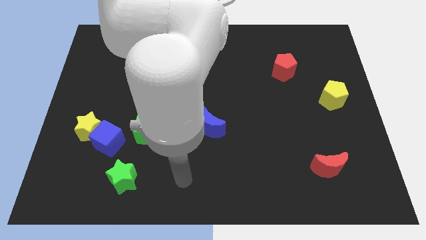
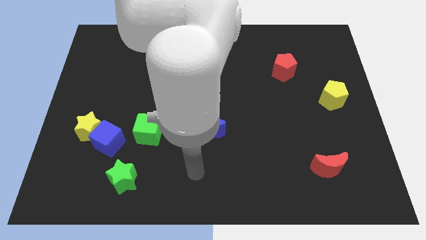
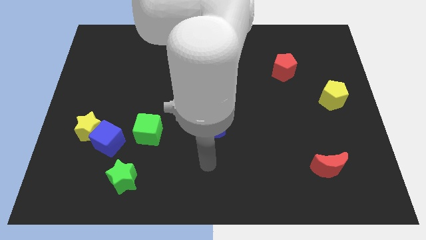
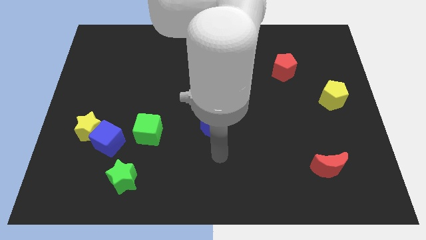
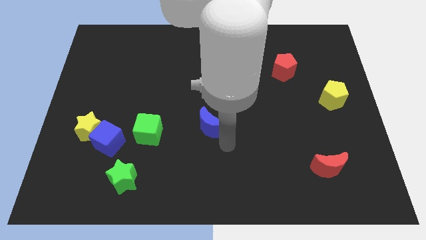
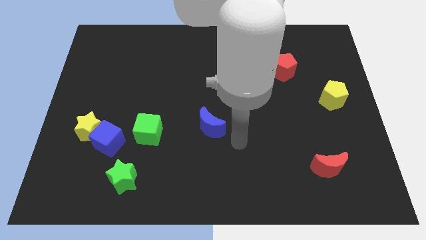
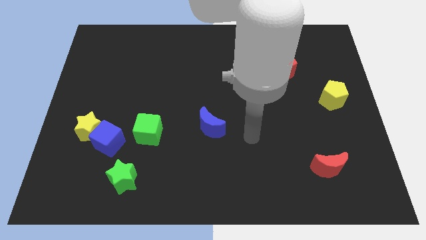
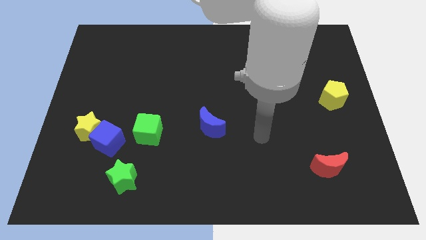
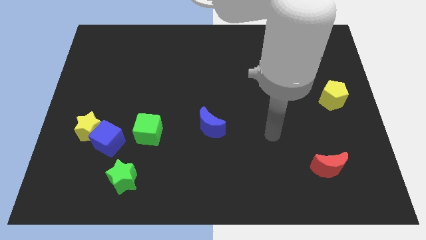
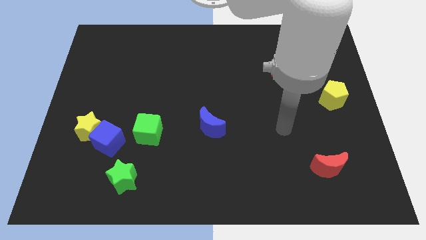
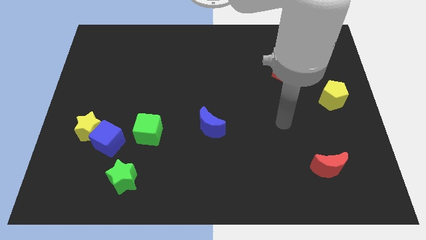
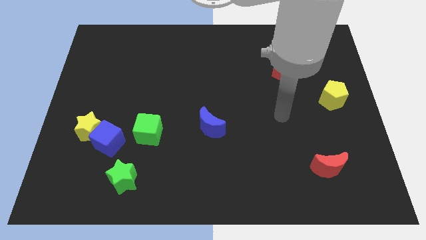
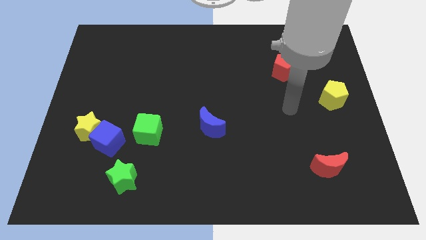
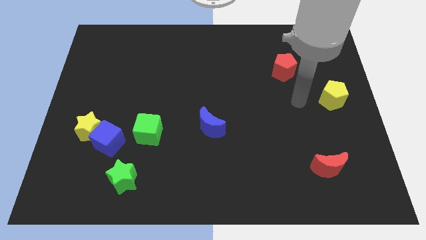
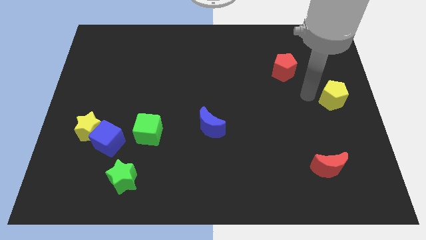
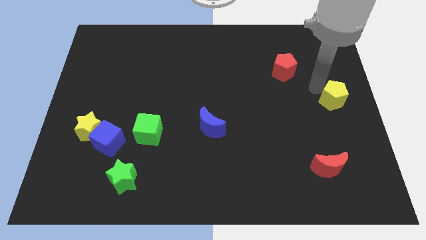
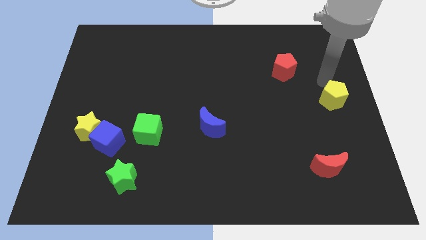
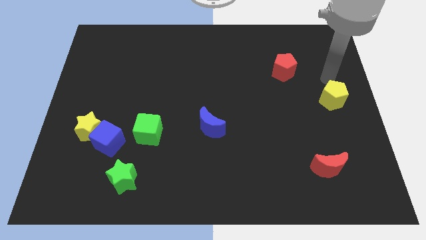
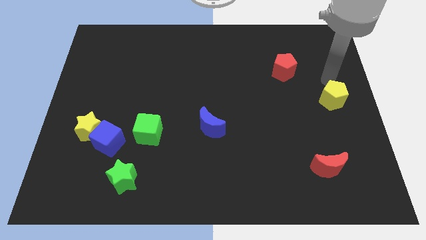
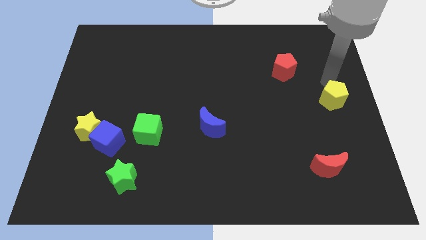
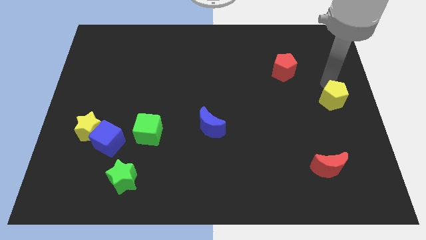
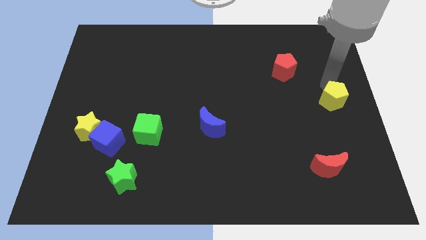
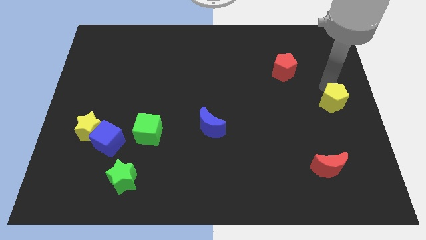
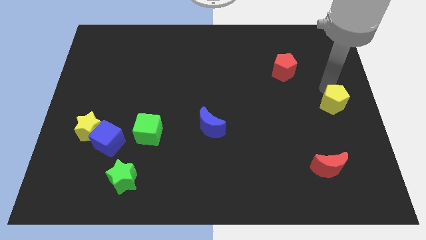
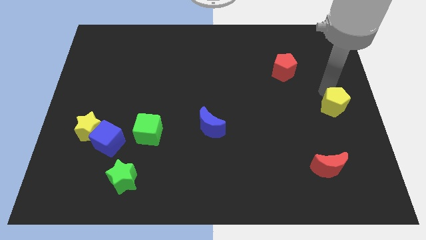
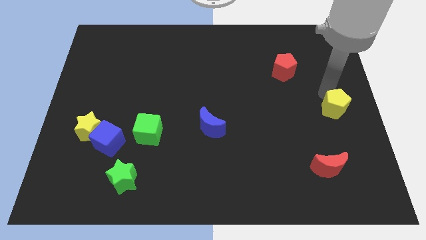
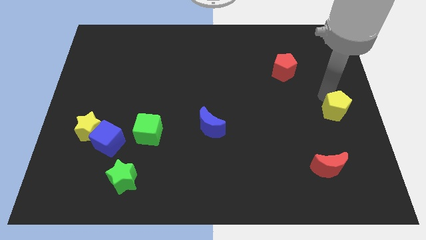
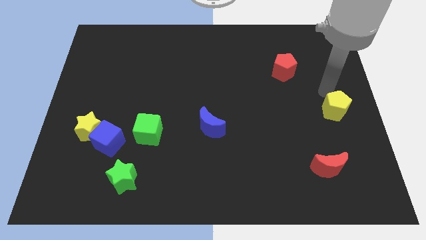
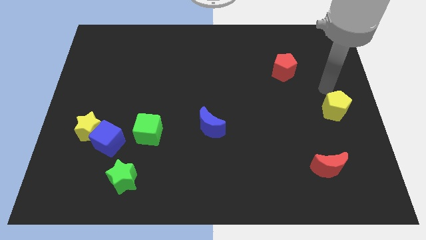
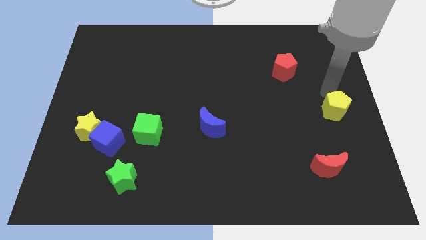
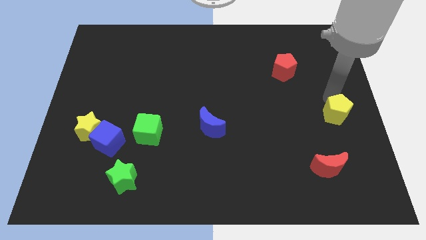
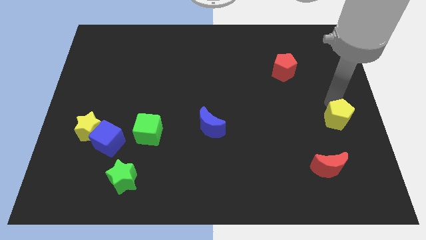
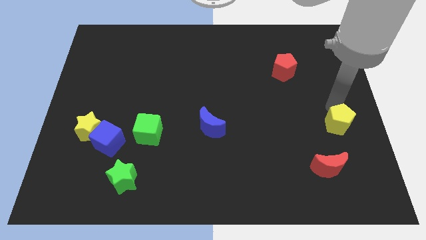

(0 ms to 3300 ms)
slide the yellow pentagon a bit down

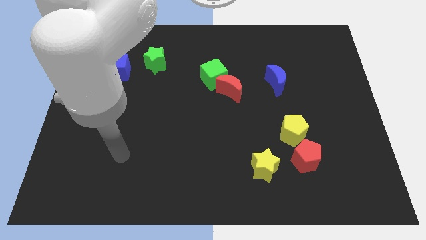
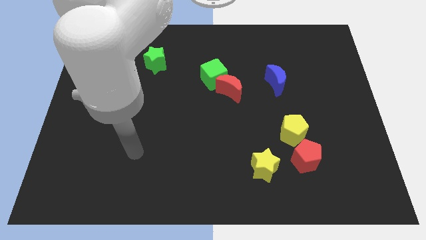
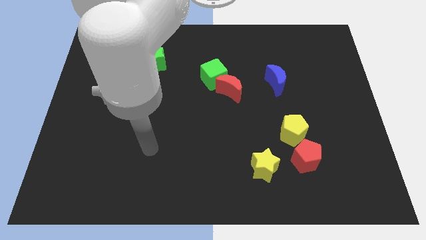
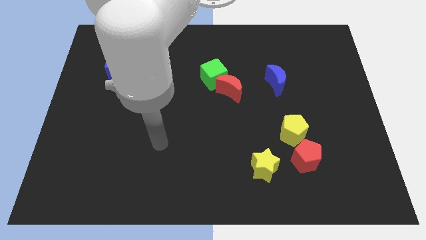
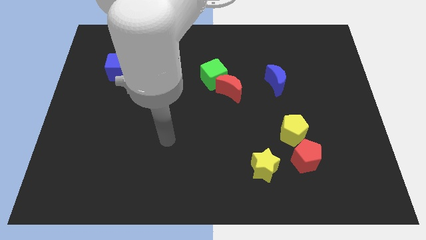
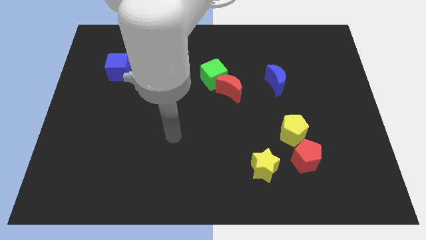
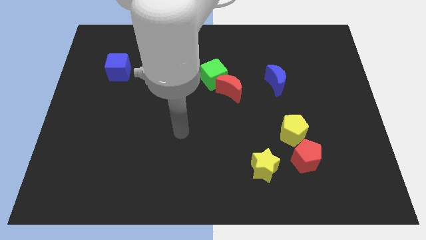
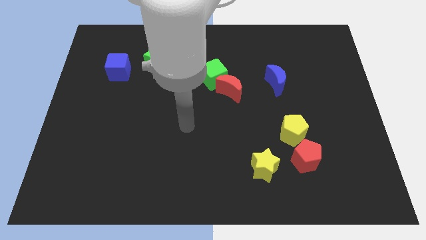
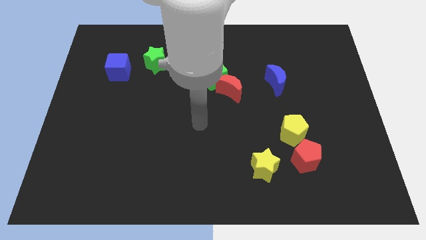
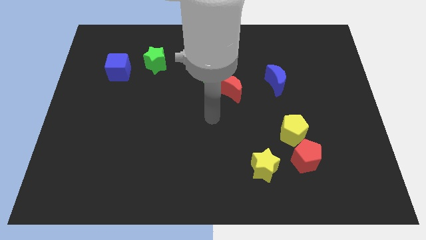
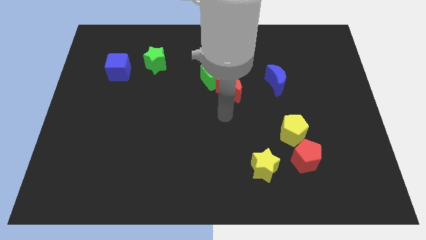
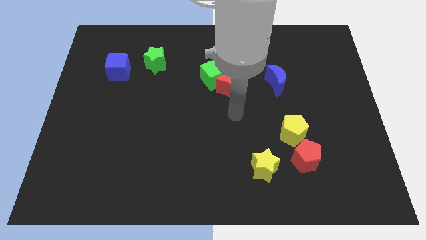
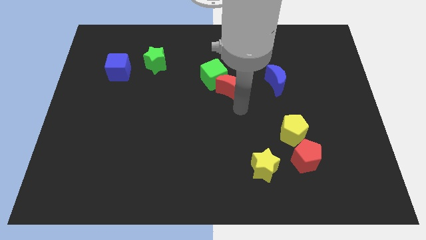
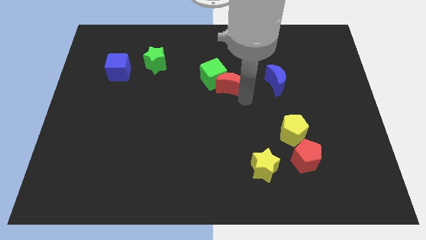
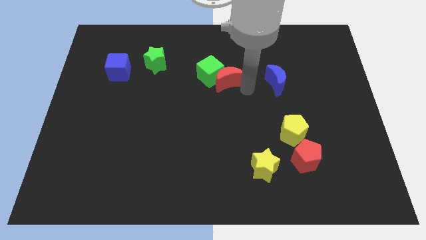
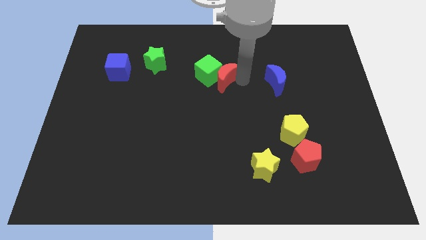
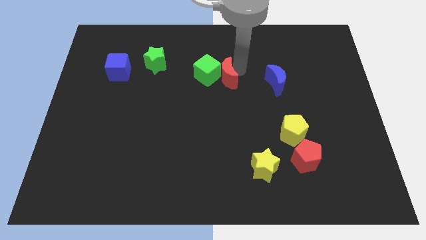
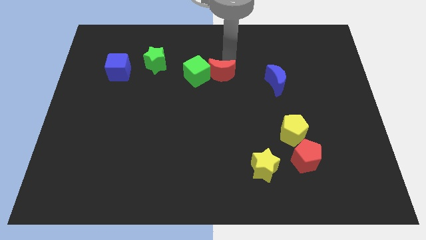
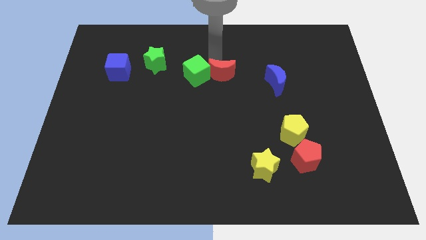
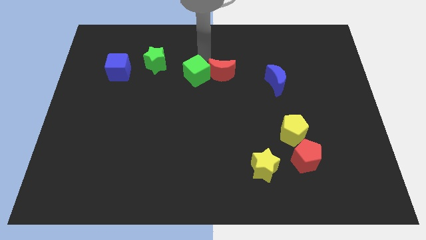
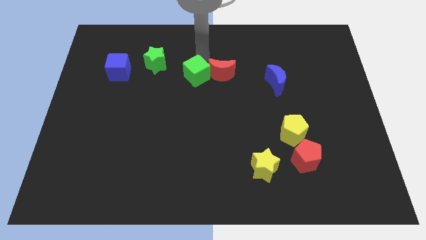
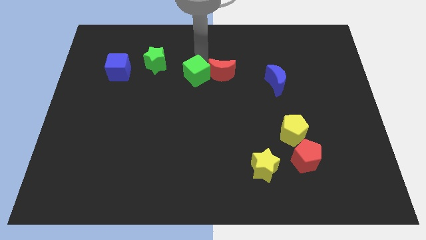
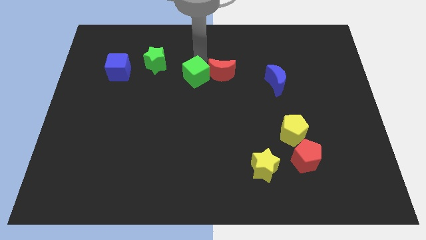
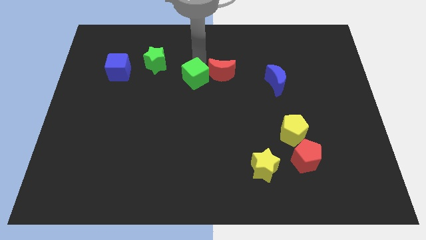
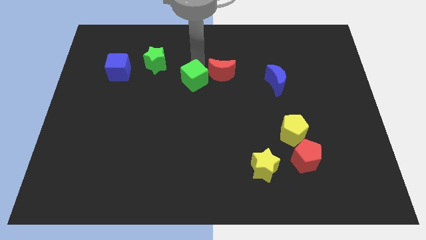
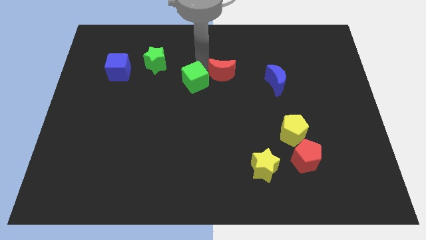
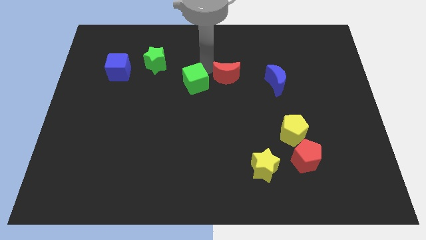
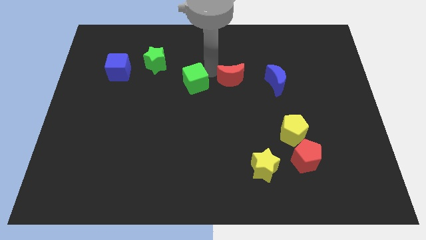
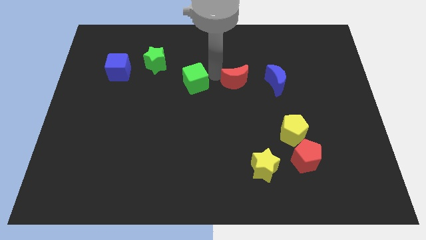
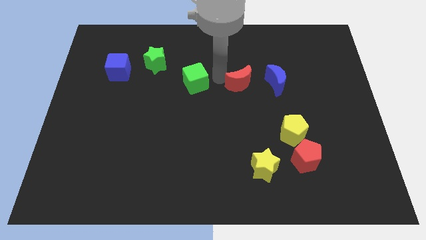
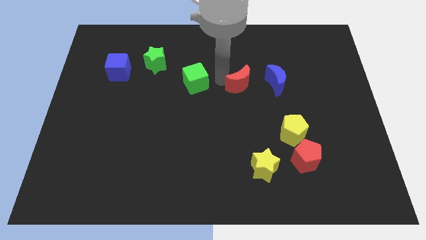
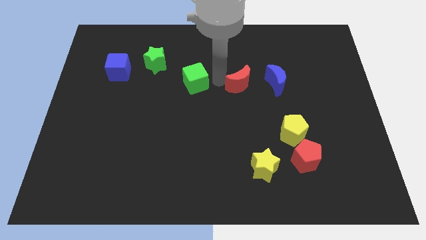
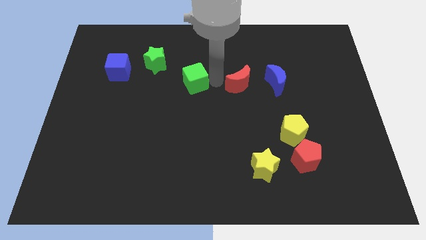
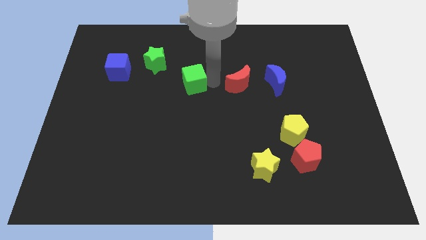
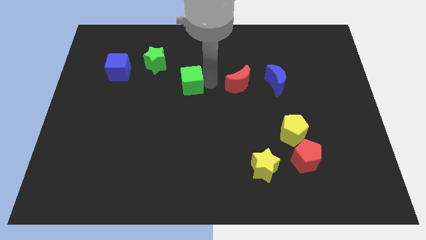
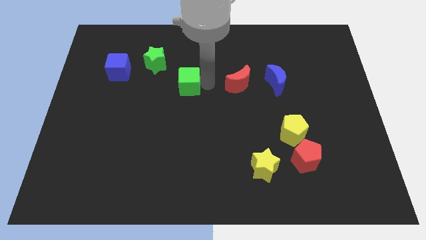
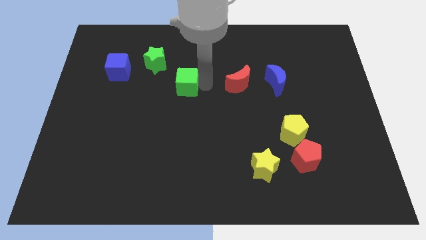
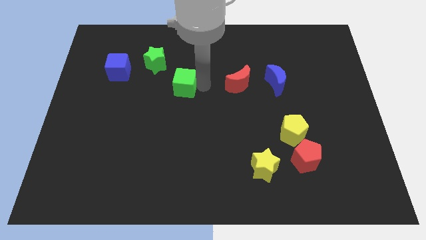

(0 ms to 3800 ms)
push the green cube a little left

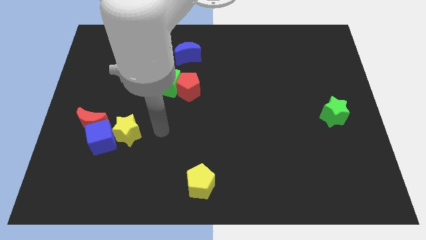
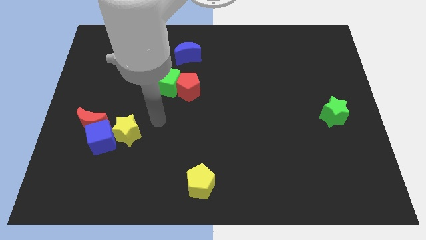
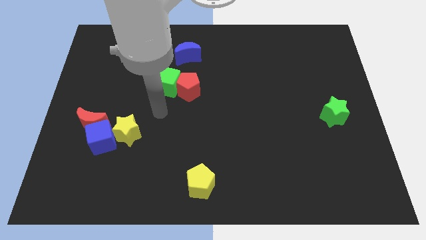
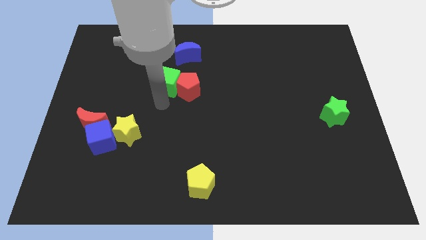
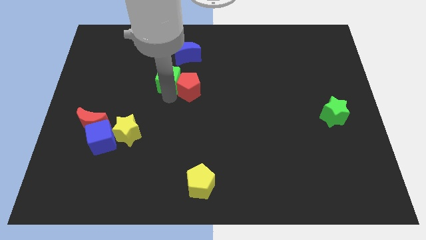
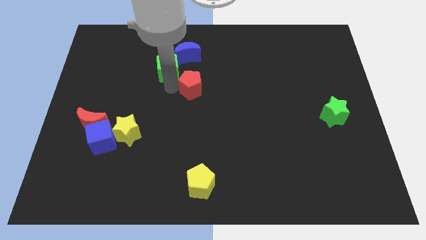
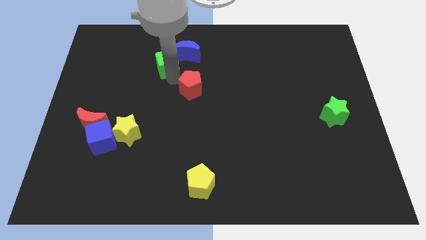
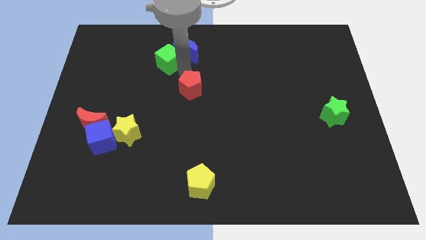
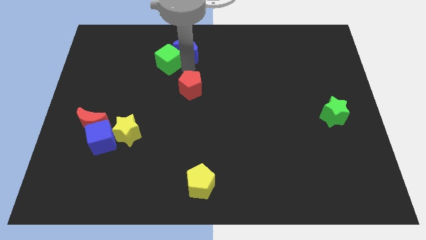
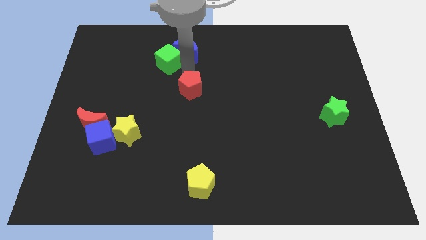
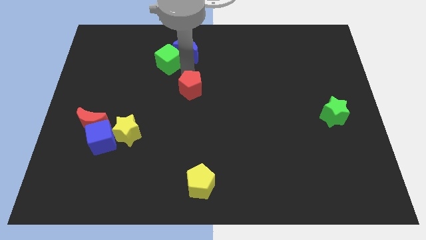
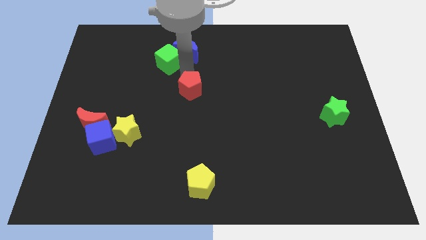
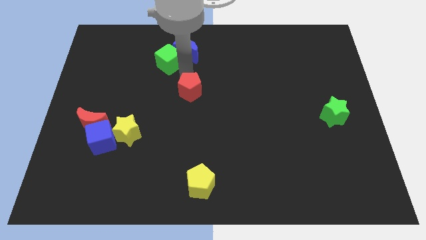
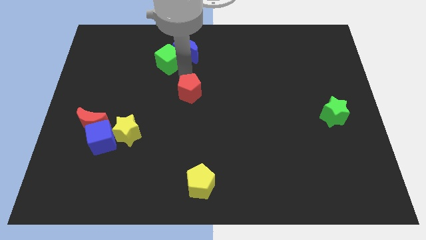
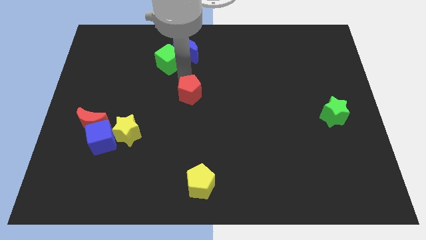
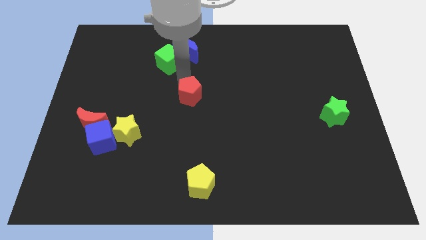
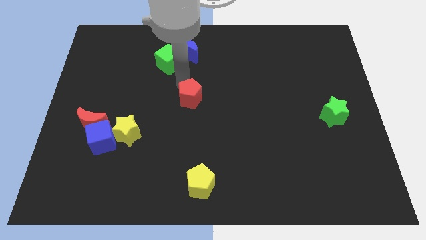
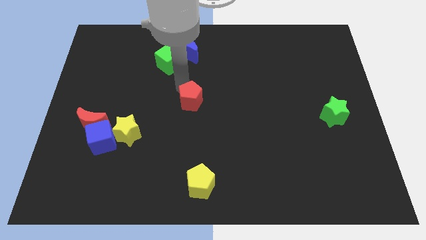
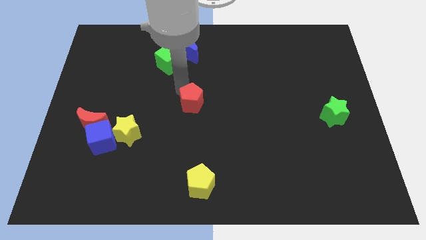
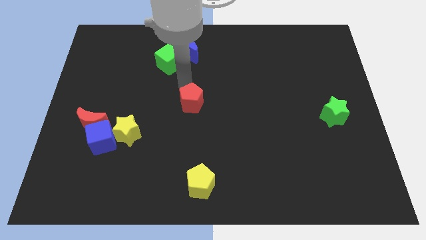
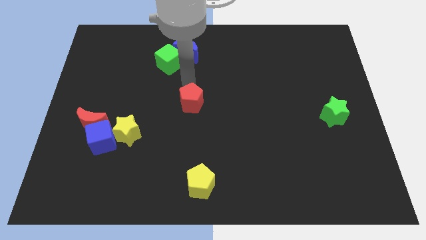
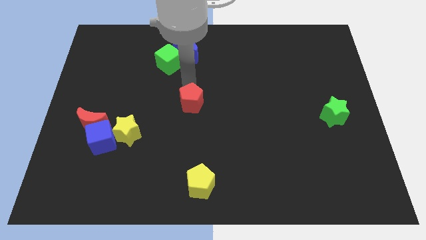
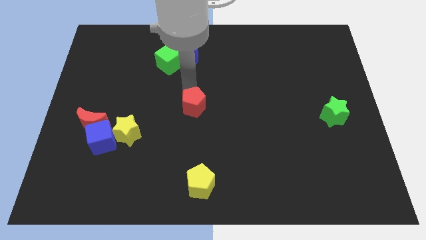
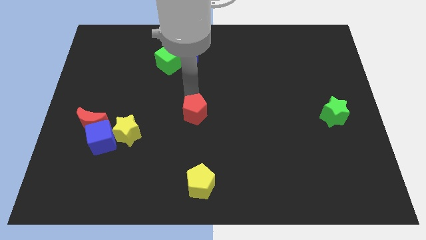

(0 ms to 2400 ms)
slightly slide the red pentagon down
